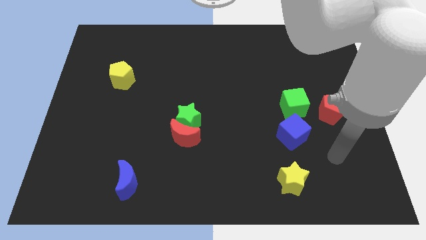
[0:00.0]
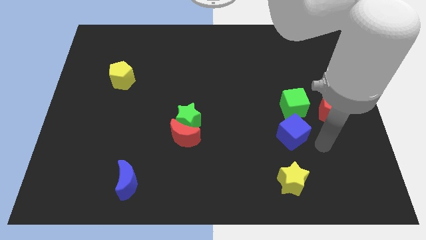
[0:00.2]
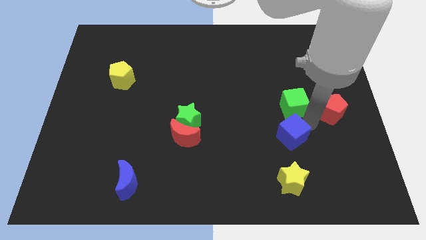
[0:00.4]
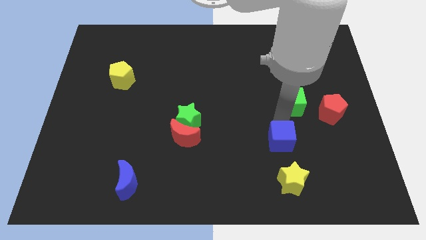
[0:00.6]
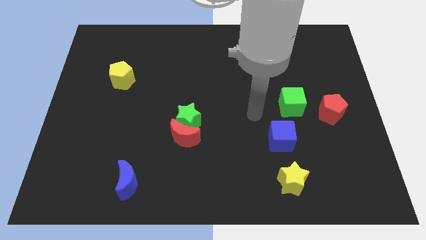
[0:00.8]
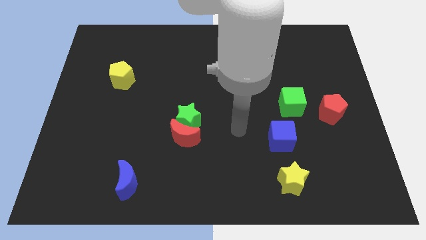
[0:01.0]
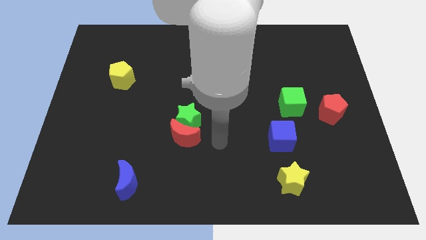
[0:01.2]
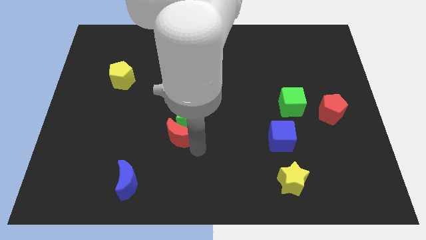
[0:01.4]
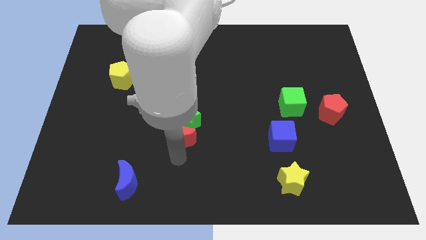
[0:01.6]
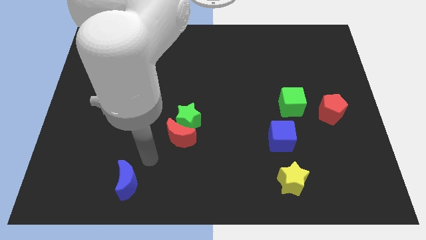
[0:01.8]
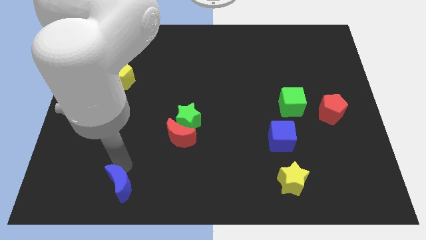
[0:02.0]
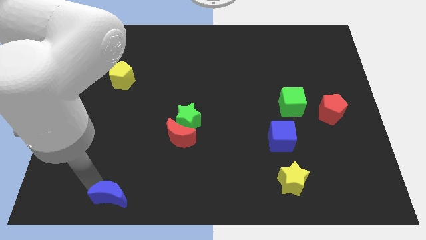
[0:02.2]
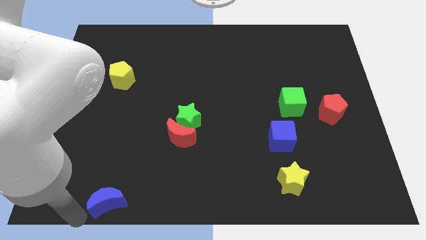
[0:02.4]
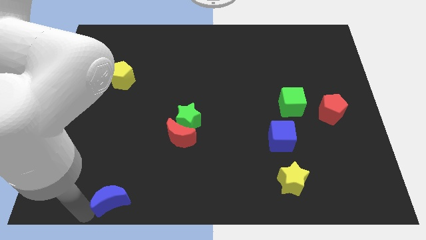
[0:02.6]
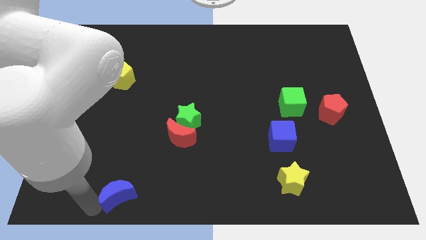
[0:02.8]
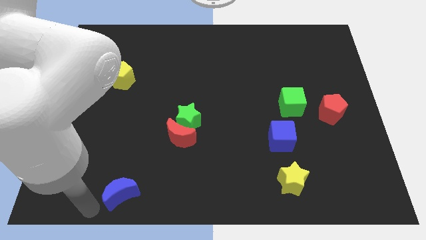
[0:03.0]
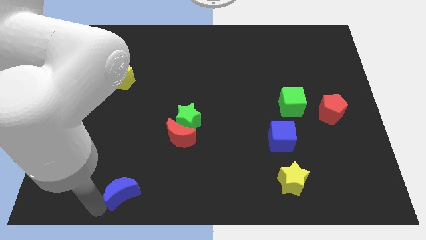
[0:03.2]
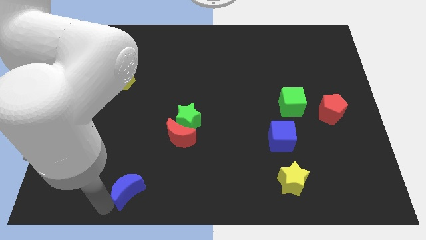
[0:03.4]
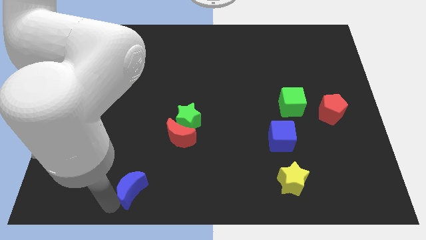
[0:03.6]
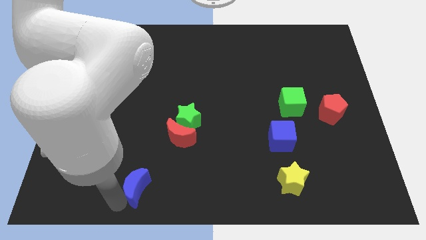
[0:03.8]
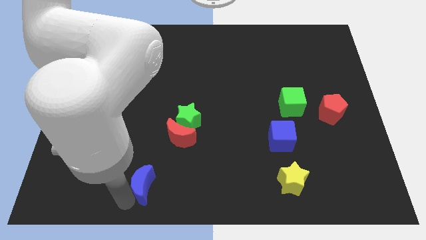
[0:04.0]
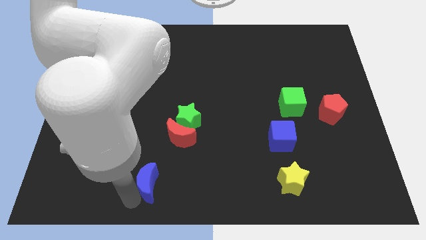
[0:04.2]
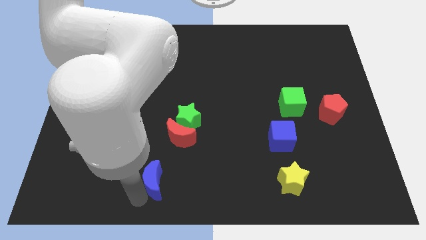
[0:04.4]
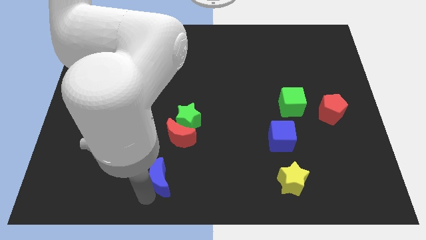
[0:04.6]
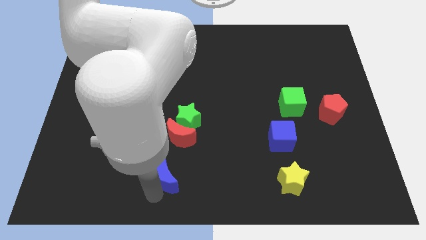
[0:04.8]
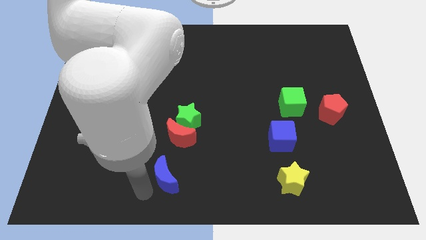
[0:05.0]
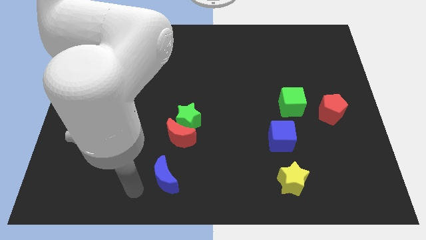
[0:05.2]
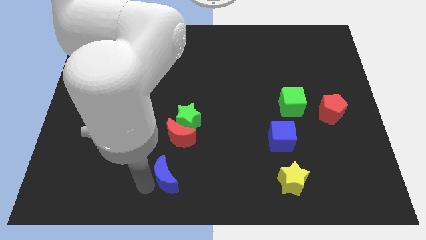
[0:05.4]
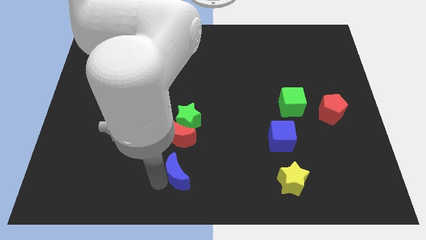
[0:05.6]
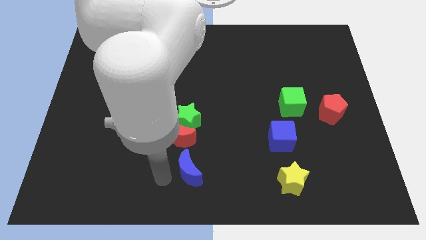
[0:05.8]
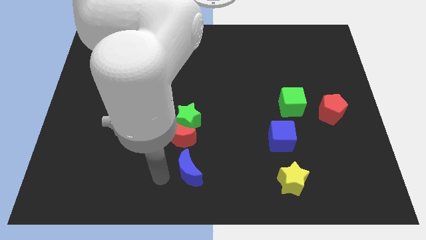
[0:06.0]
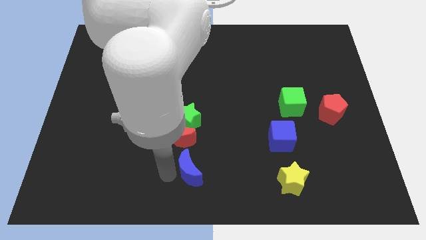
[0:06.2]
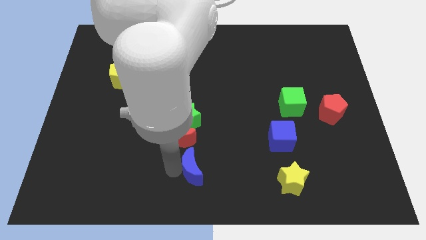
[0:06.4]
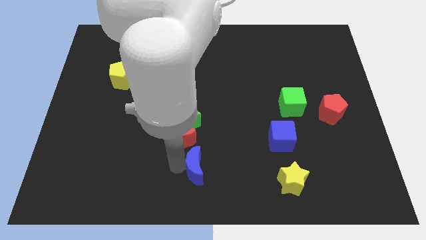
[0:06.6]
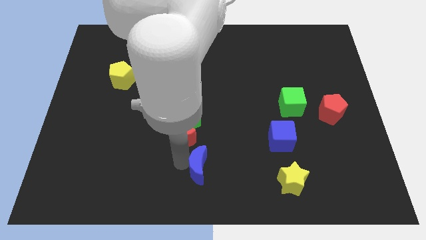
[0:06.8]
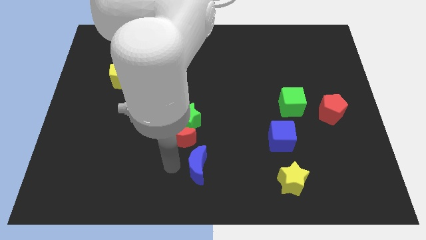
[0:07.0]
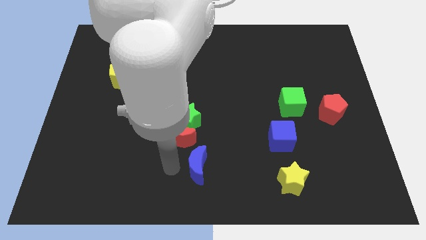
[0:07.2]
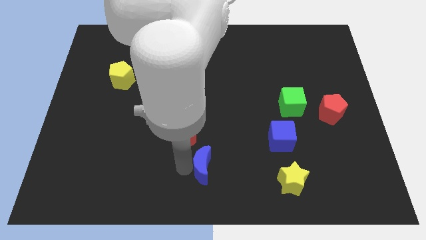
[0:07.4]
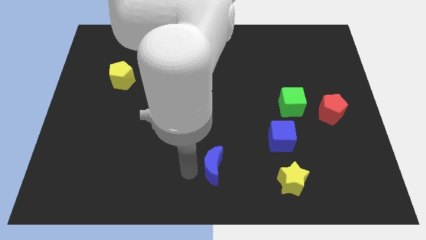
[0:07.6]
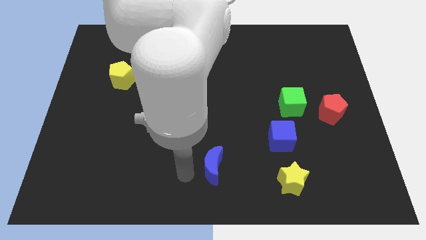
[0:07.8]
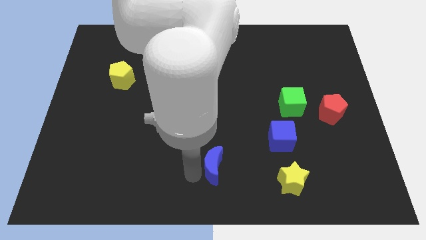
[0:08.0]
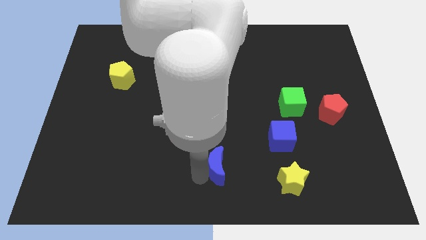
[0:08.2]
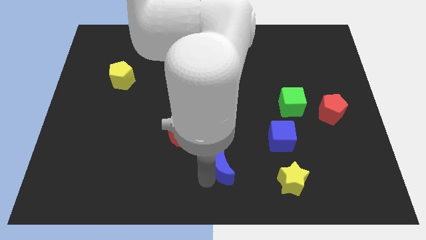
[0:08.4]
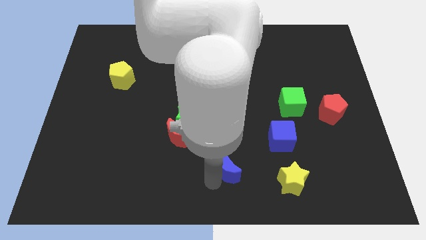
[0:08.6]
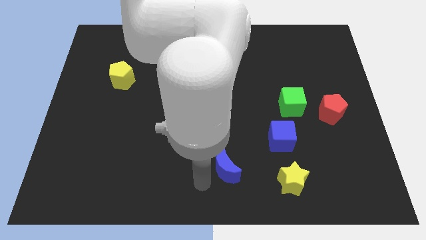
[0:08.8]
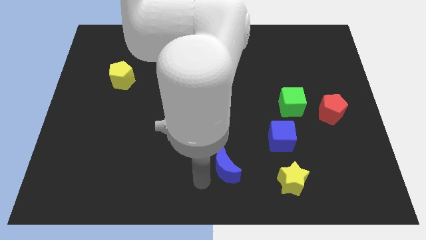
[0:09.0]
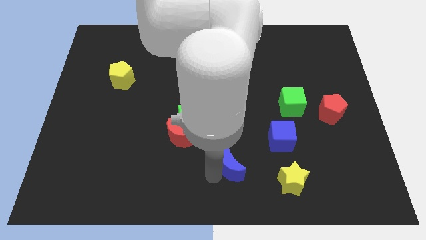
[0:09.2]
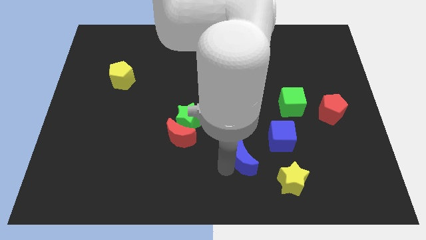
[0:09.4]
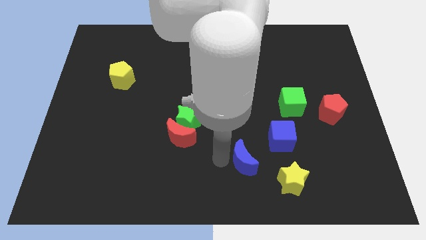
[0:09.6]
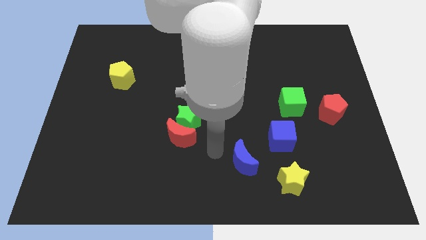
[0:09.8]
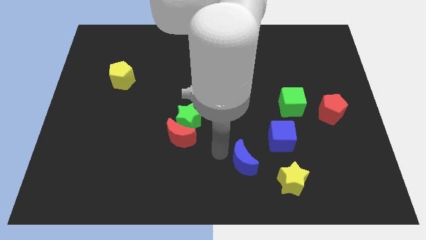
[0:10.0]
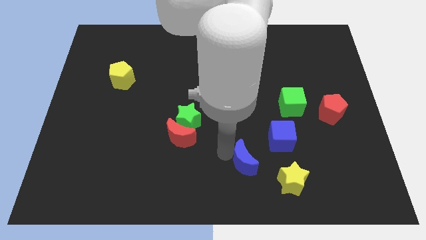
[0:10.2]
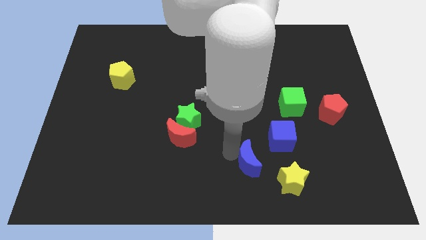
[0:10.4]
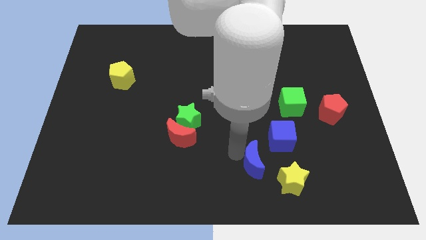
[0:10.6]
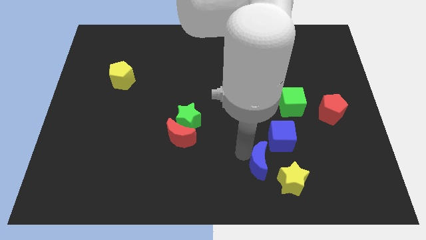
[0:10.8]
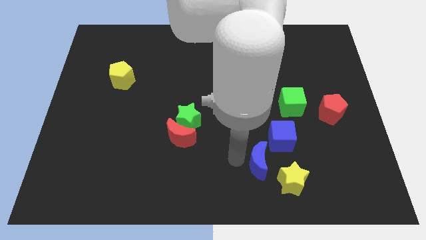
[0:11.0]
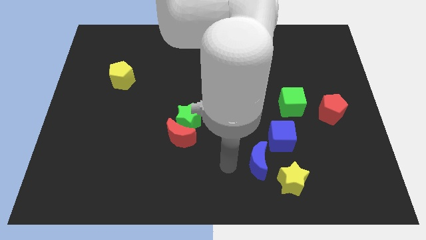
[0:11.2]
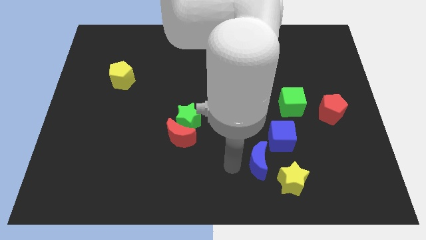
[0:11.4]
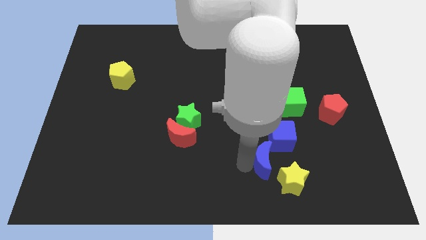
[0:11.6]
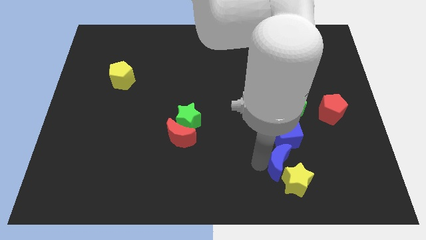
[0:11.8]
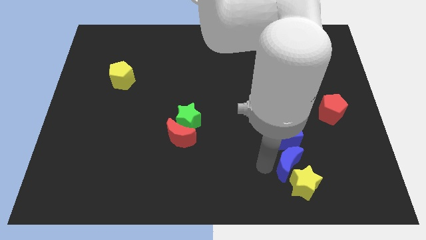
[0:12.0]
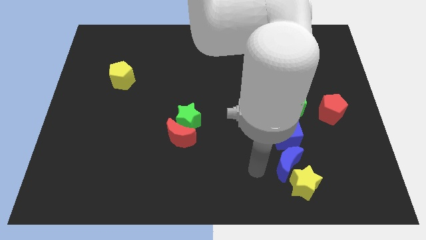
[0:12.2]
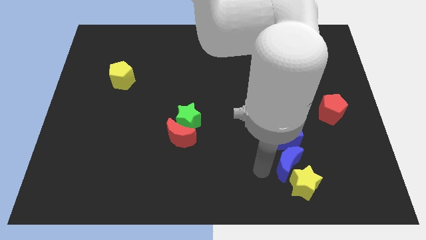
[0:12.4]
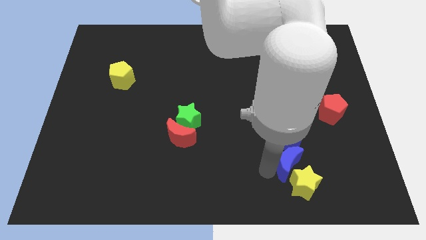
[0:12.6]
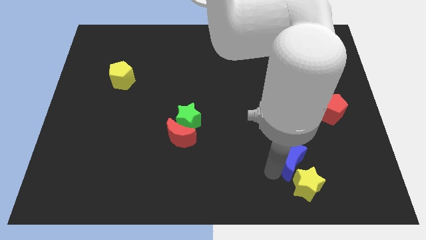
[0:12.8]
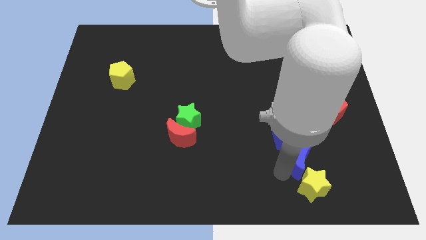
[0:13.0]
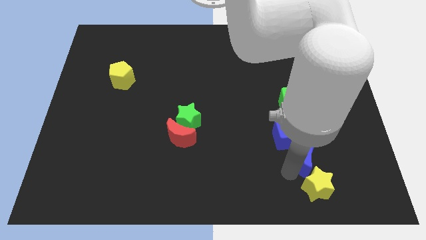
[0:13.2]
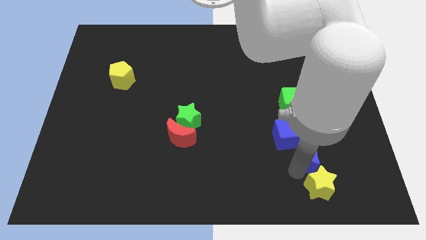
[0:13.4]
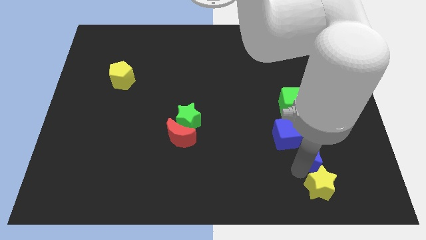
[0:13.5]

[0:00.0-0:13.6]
slide the blue moon right of the blue cube

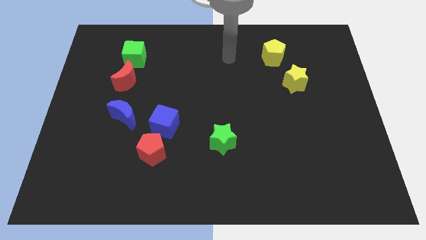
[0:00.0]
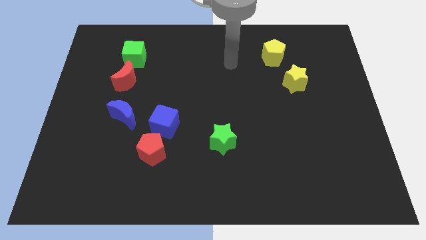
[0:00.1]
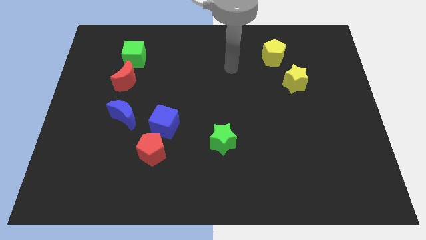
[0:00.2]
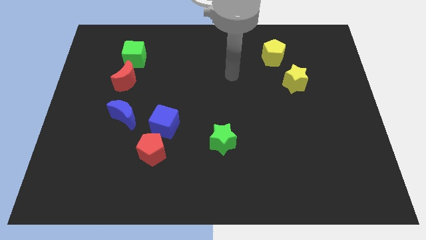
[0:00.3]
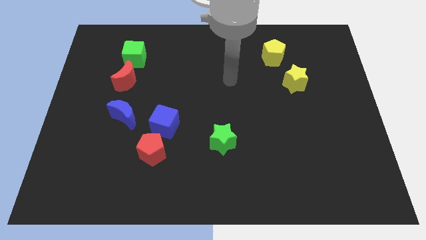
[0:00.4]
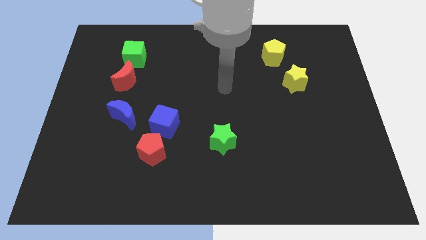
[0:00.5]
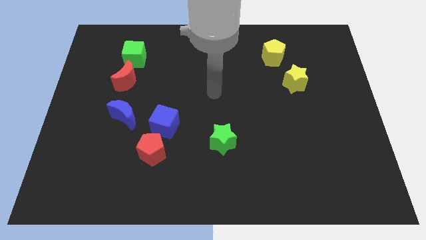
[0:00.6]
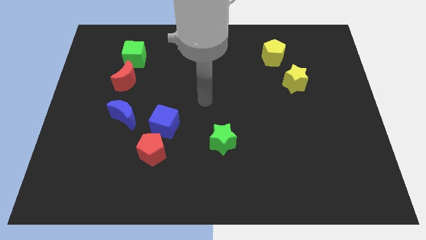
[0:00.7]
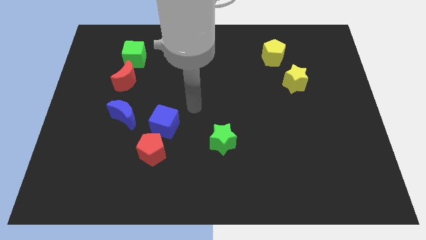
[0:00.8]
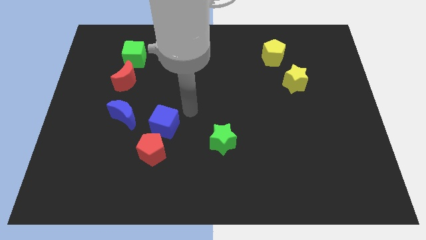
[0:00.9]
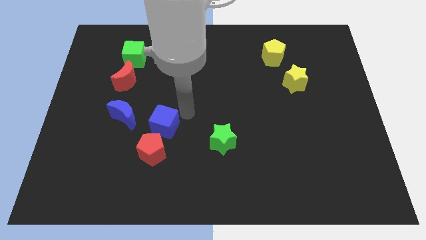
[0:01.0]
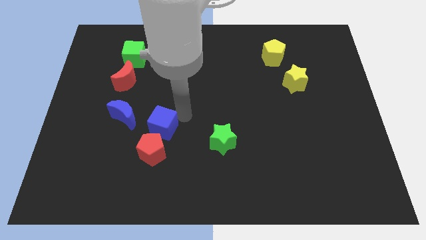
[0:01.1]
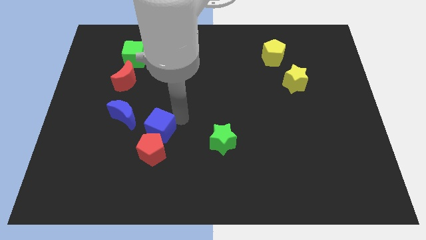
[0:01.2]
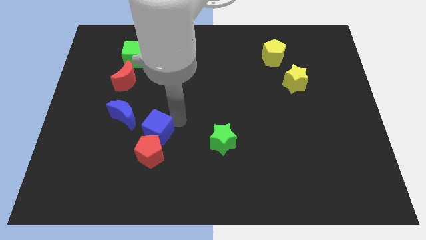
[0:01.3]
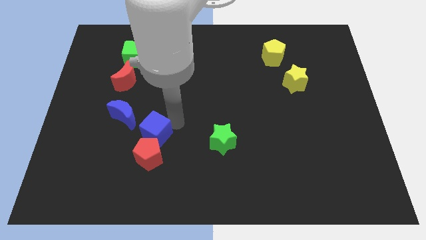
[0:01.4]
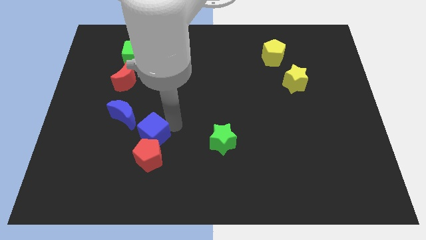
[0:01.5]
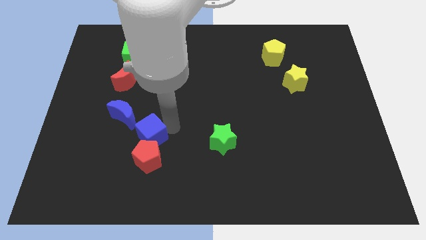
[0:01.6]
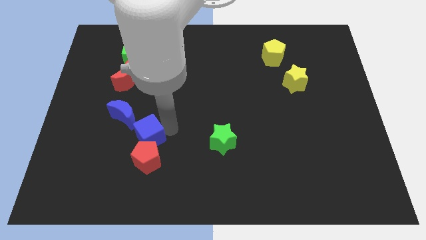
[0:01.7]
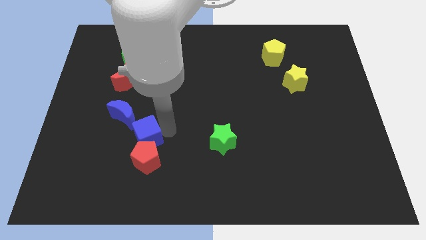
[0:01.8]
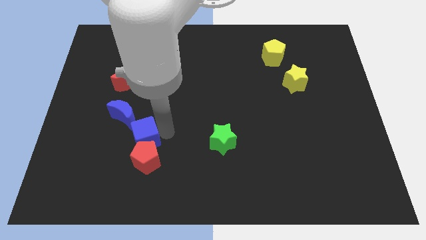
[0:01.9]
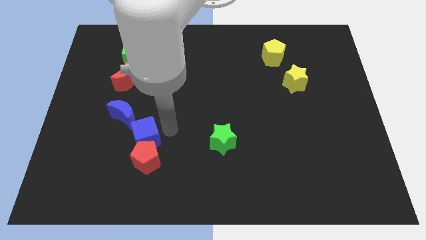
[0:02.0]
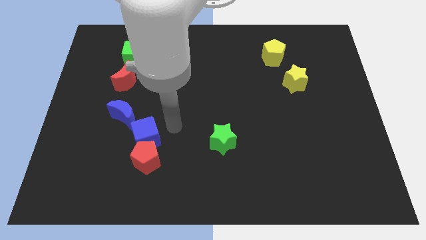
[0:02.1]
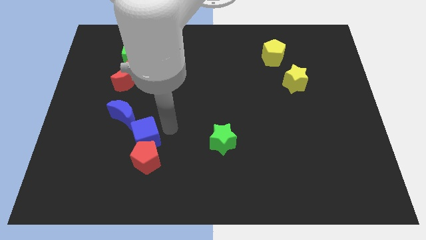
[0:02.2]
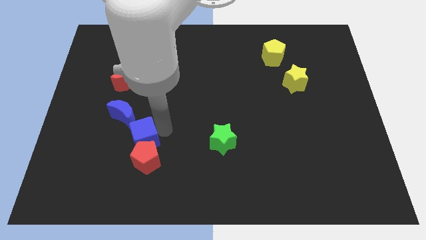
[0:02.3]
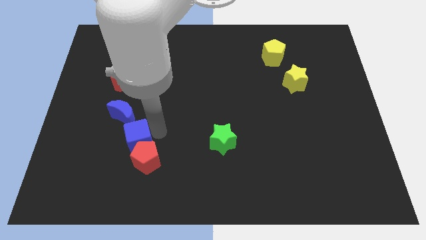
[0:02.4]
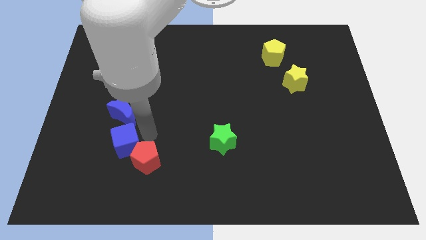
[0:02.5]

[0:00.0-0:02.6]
push the blue cube to the left of the red pentagon
